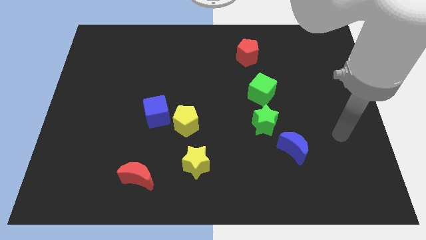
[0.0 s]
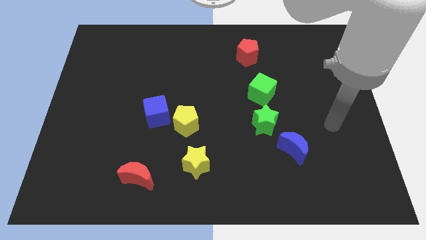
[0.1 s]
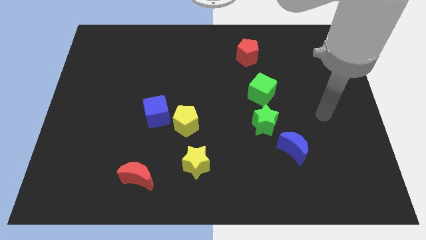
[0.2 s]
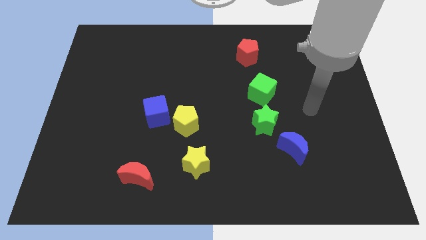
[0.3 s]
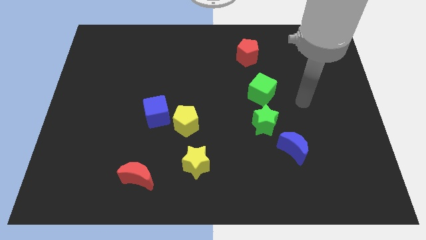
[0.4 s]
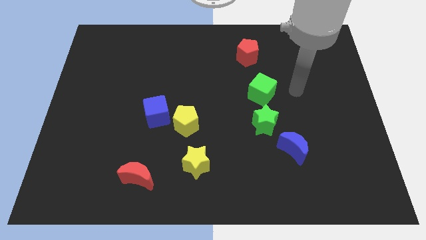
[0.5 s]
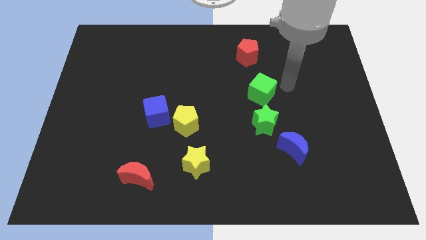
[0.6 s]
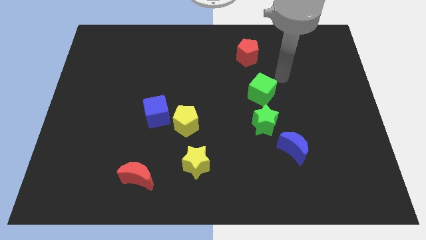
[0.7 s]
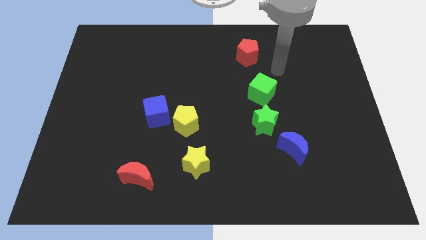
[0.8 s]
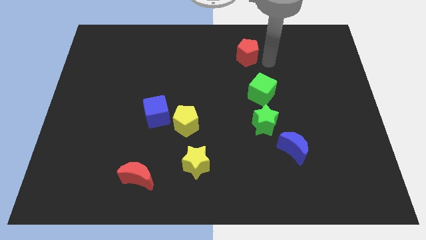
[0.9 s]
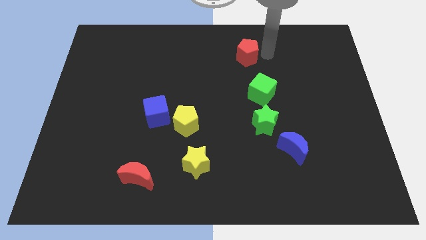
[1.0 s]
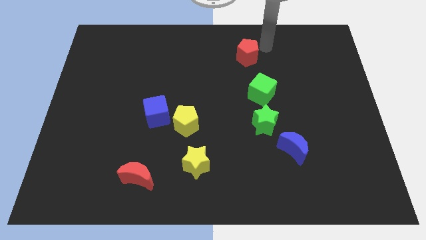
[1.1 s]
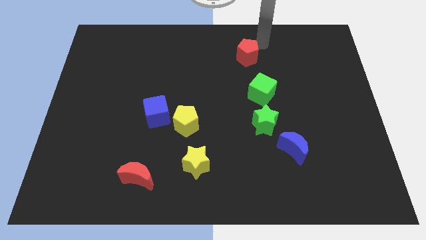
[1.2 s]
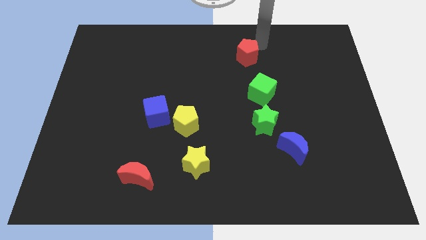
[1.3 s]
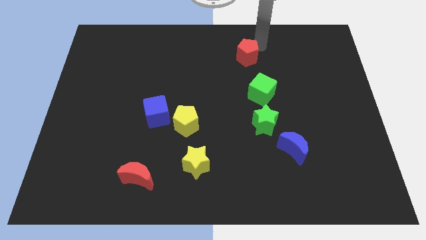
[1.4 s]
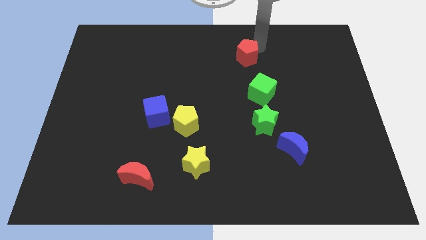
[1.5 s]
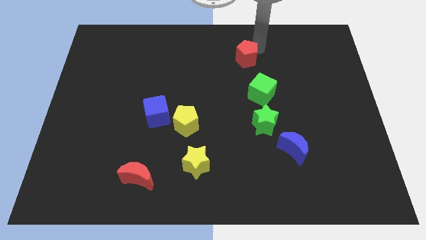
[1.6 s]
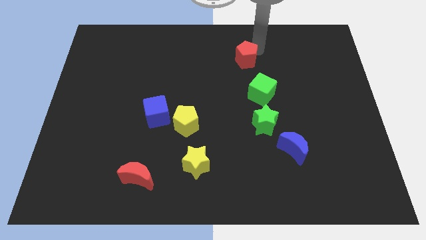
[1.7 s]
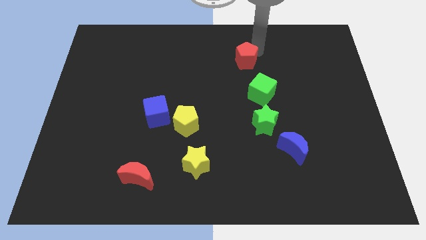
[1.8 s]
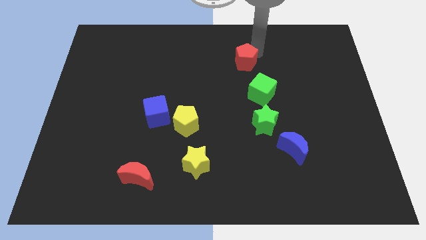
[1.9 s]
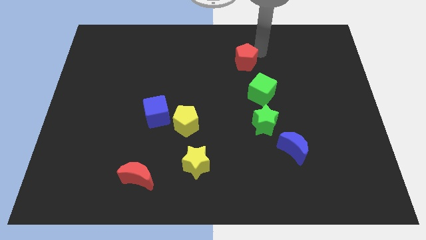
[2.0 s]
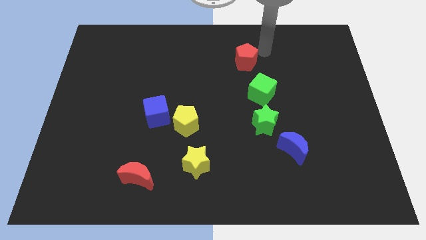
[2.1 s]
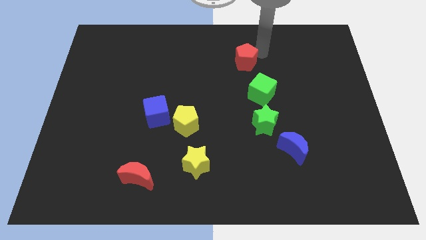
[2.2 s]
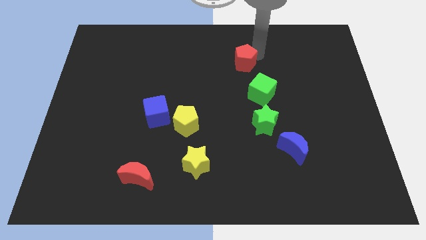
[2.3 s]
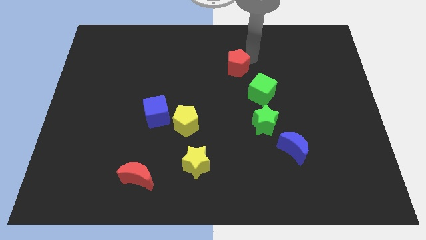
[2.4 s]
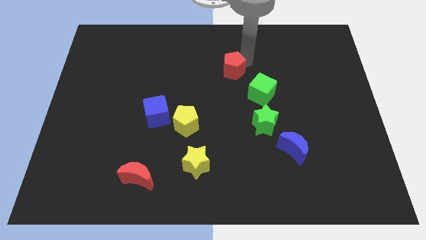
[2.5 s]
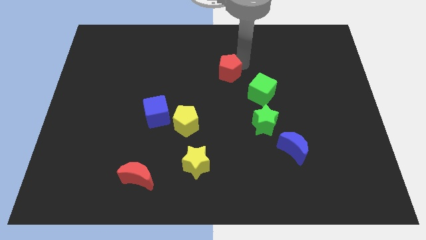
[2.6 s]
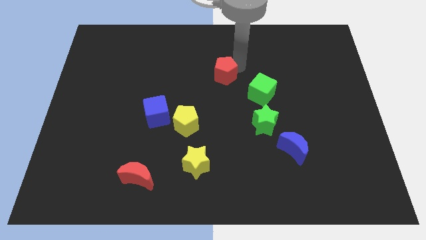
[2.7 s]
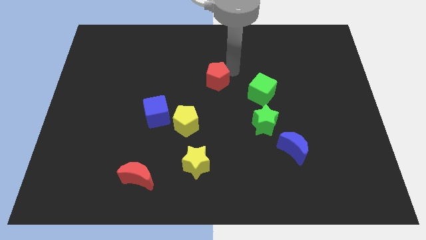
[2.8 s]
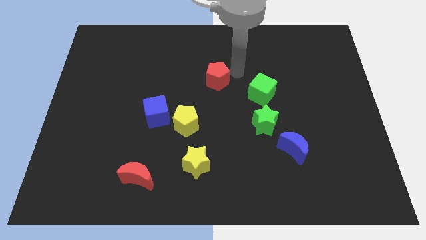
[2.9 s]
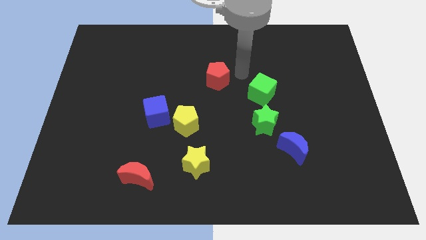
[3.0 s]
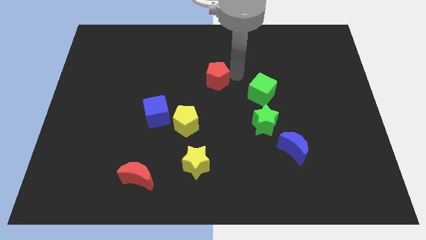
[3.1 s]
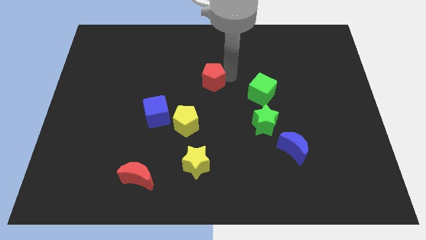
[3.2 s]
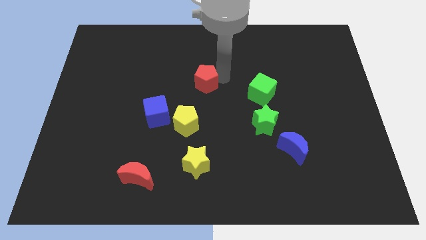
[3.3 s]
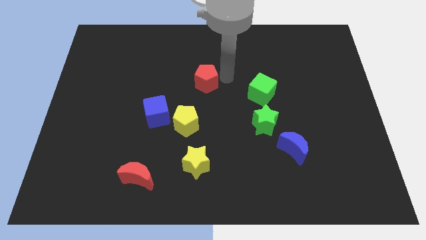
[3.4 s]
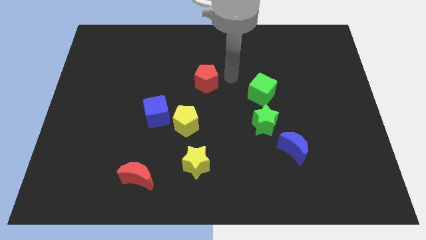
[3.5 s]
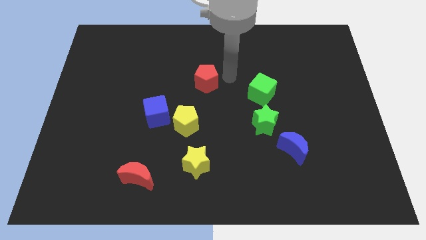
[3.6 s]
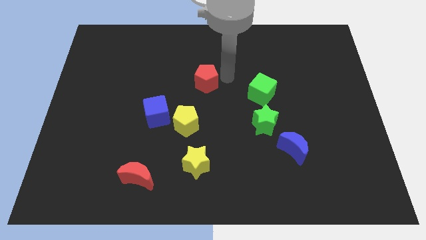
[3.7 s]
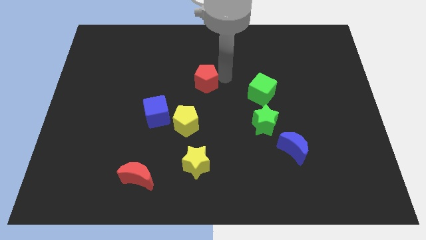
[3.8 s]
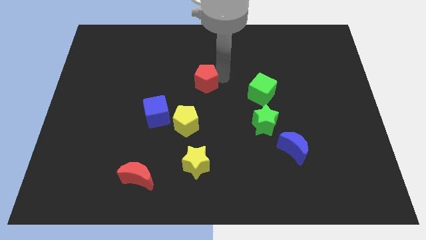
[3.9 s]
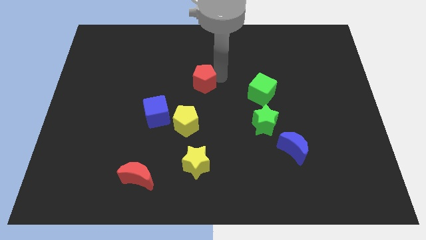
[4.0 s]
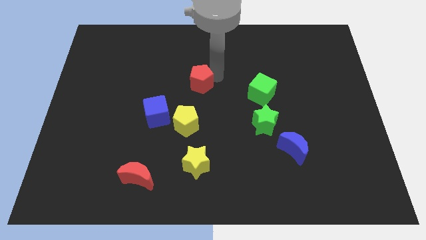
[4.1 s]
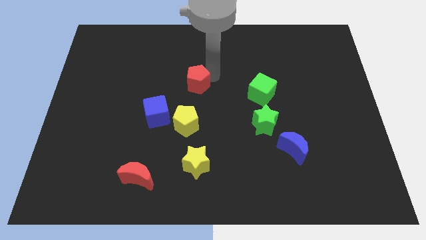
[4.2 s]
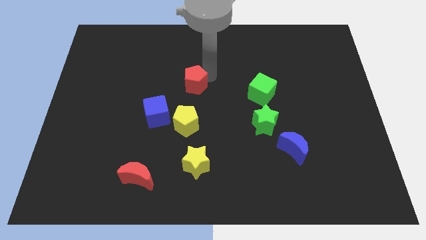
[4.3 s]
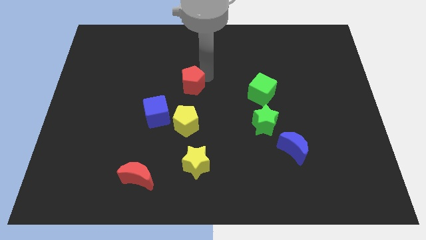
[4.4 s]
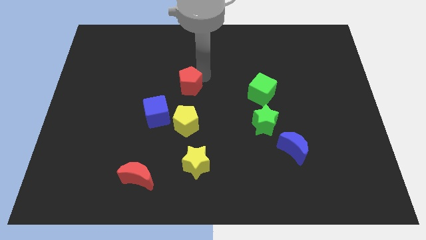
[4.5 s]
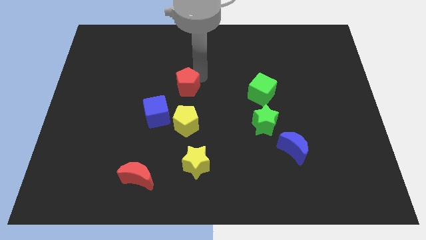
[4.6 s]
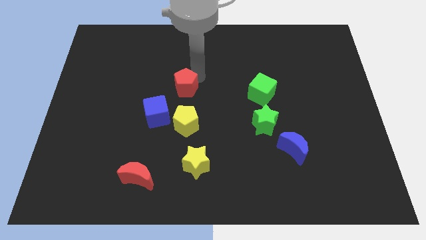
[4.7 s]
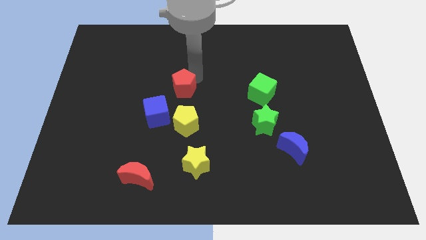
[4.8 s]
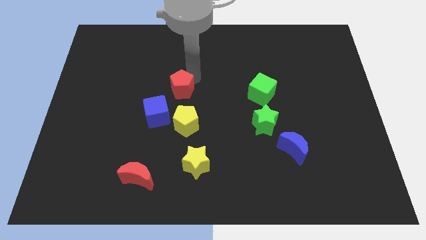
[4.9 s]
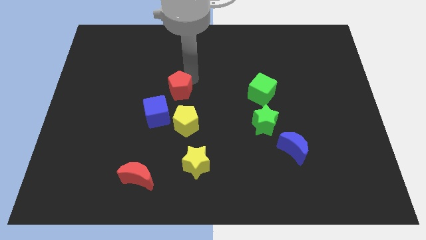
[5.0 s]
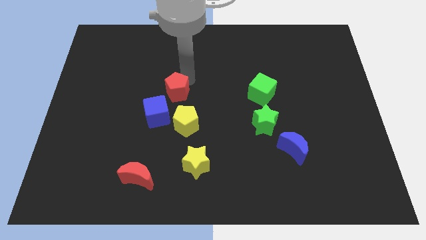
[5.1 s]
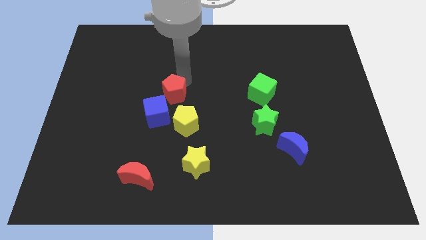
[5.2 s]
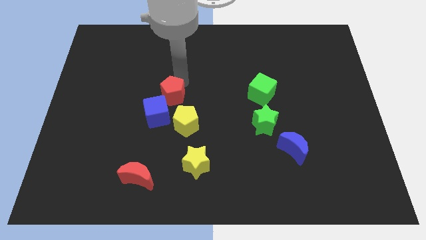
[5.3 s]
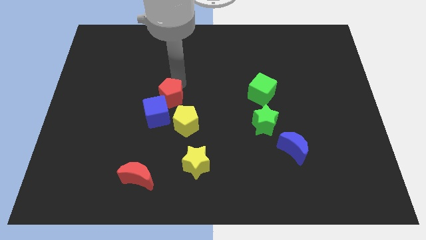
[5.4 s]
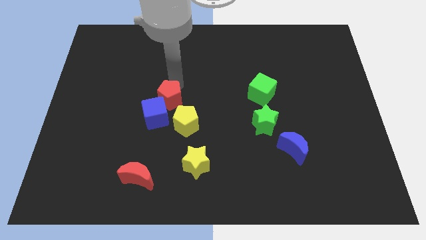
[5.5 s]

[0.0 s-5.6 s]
move the red pentagon next to the blue cube

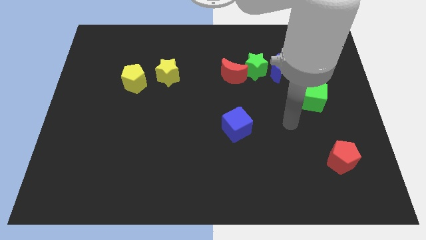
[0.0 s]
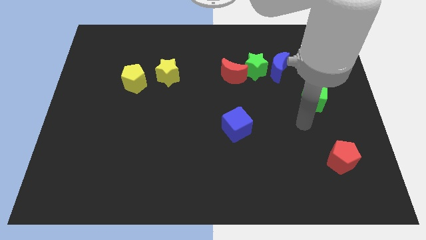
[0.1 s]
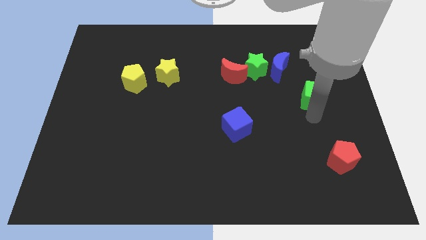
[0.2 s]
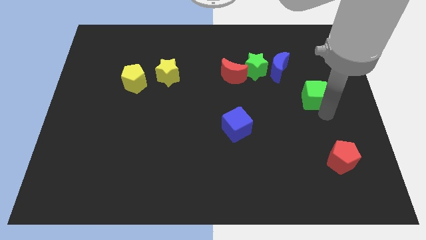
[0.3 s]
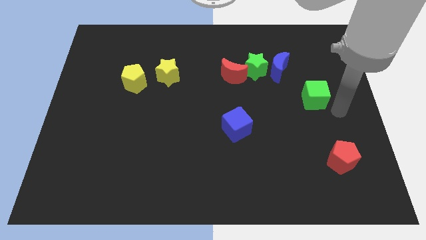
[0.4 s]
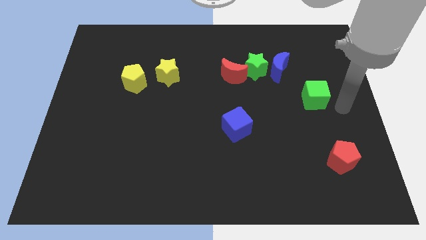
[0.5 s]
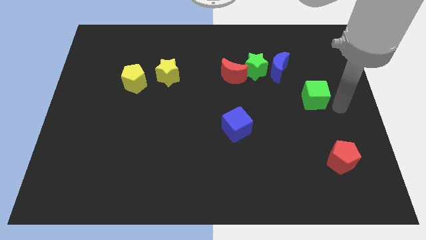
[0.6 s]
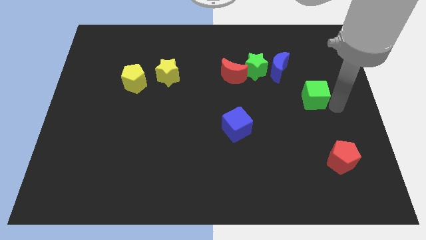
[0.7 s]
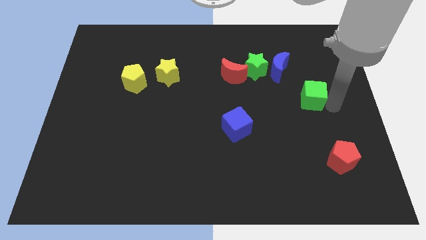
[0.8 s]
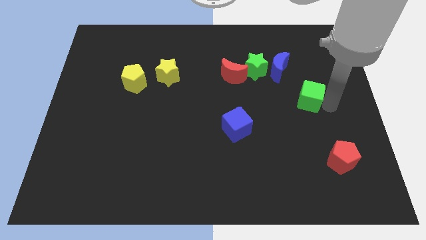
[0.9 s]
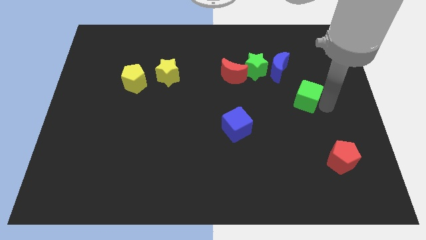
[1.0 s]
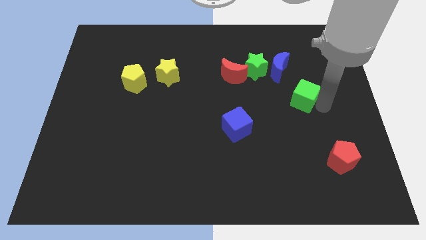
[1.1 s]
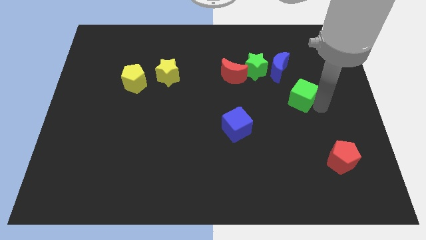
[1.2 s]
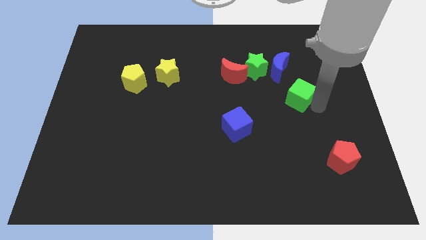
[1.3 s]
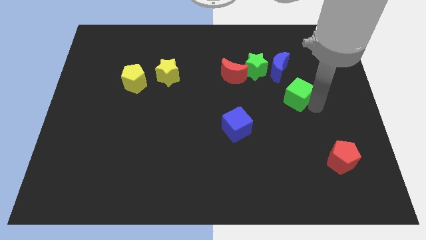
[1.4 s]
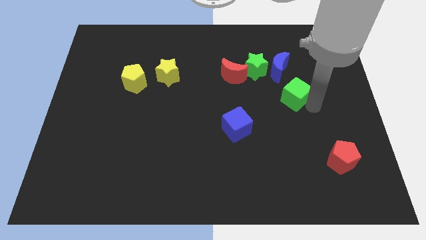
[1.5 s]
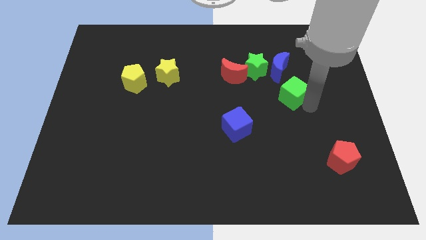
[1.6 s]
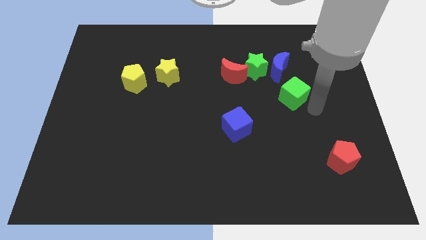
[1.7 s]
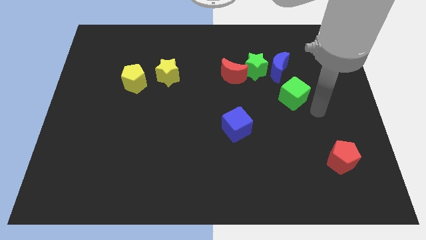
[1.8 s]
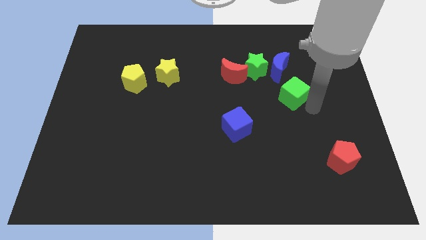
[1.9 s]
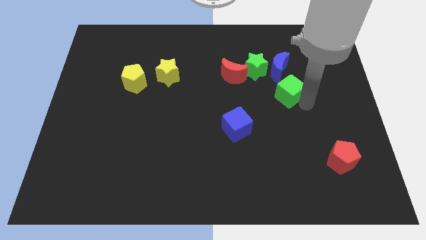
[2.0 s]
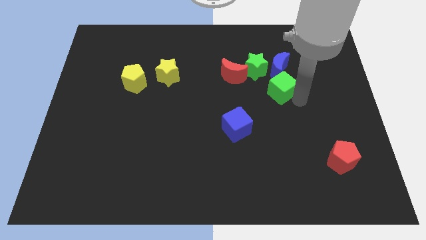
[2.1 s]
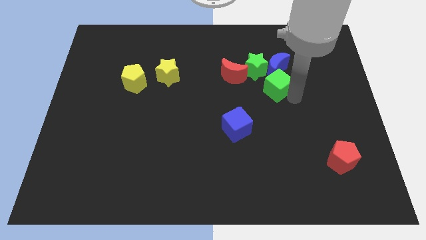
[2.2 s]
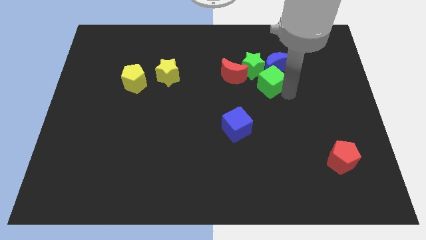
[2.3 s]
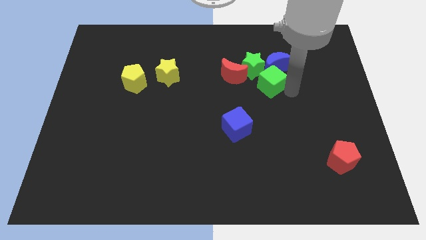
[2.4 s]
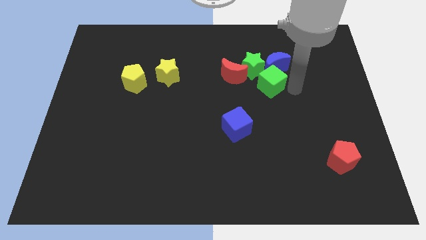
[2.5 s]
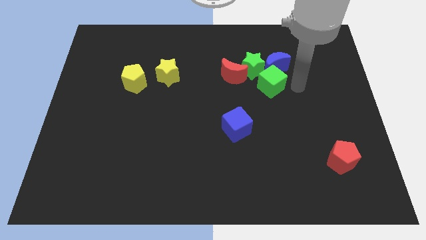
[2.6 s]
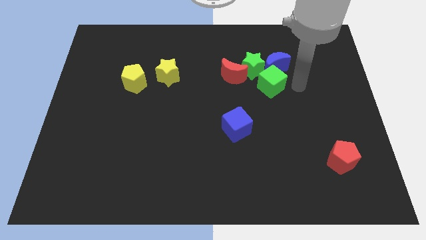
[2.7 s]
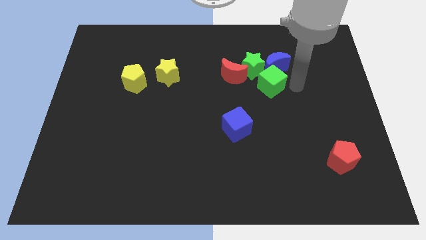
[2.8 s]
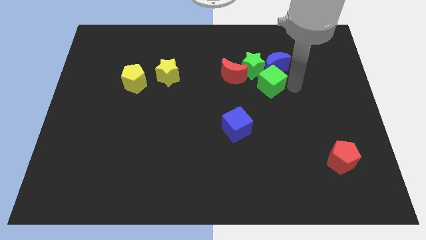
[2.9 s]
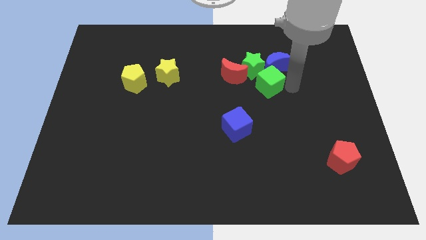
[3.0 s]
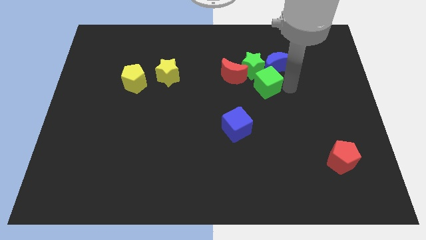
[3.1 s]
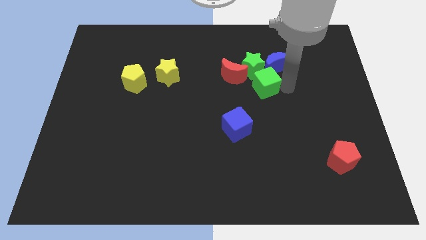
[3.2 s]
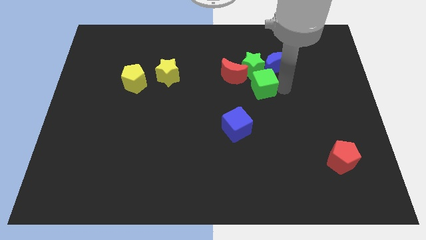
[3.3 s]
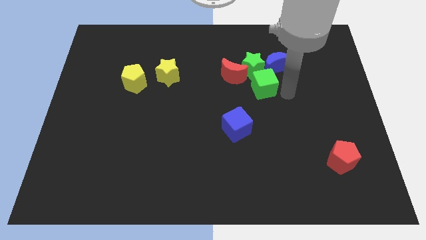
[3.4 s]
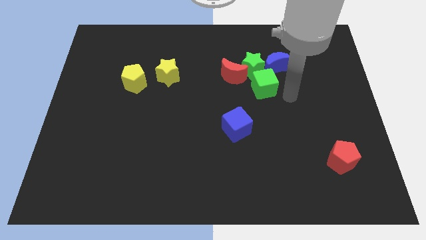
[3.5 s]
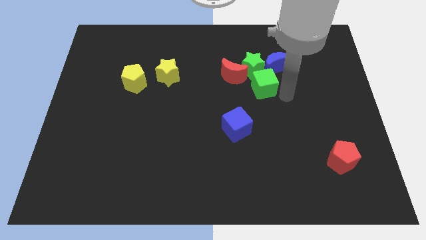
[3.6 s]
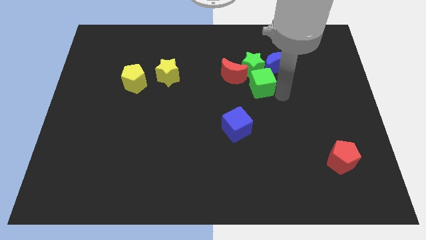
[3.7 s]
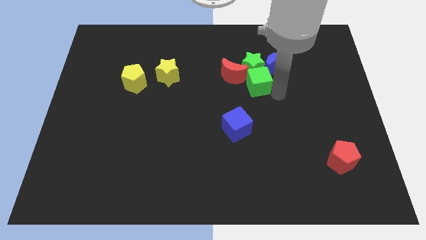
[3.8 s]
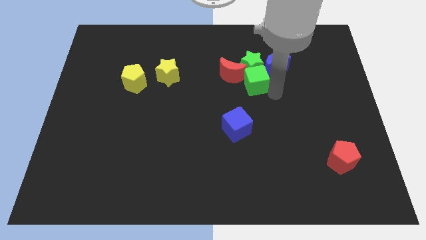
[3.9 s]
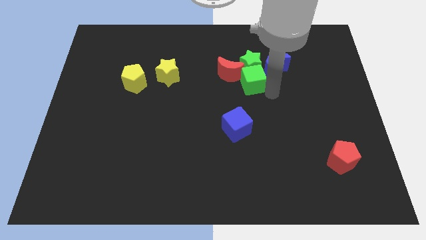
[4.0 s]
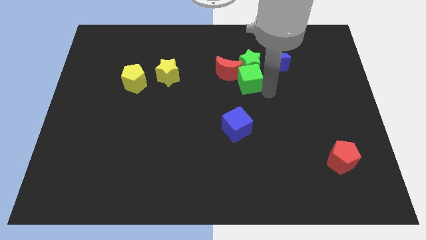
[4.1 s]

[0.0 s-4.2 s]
push the green cube to the red moon
